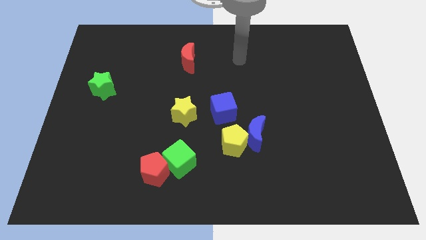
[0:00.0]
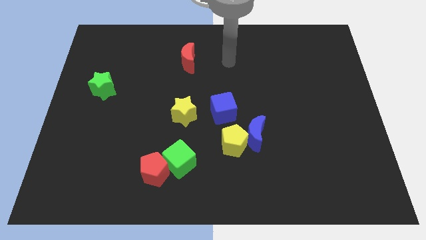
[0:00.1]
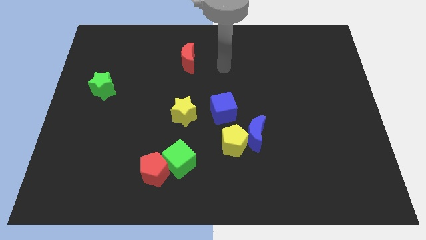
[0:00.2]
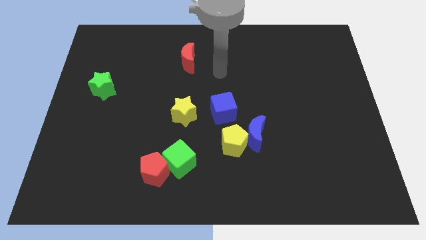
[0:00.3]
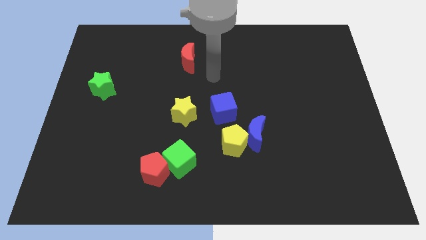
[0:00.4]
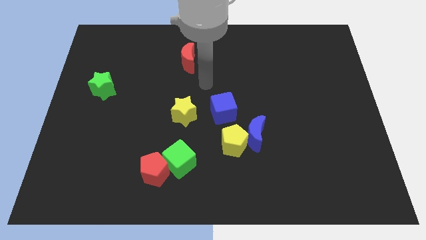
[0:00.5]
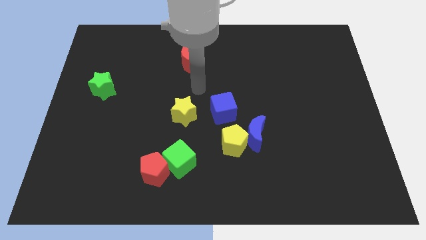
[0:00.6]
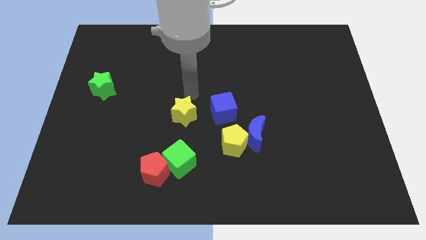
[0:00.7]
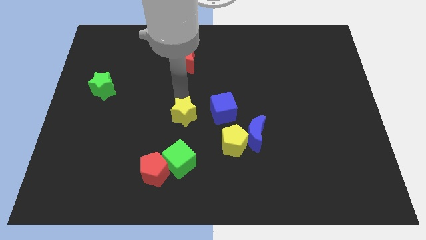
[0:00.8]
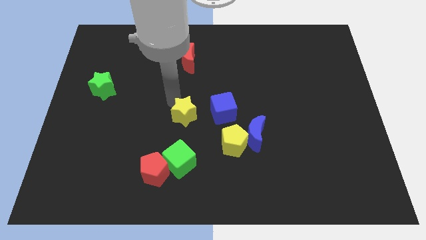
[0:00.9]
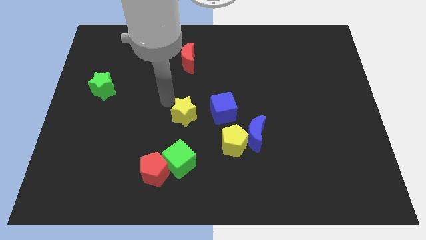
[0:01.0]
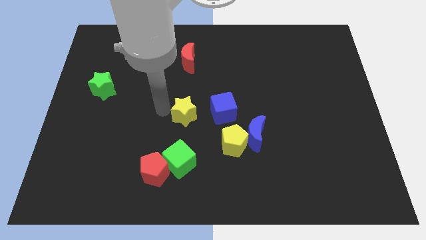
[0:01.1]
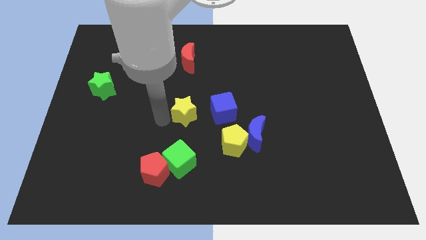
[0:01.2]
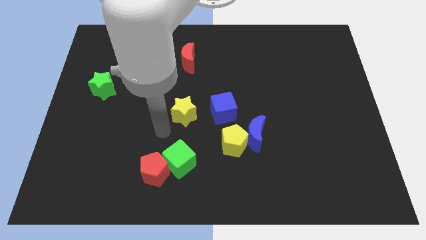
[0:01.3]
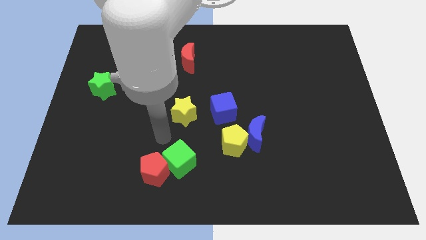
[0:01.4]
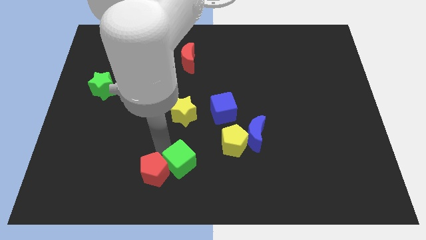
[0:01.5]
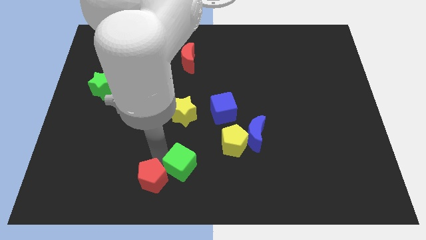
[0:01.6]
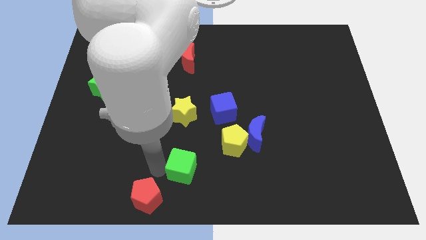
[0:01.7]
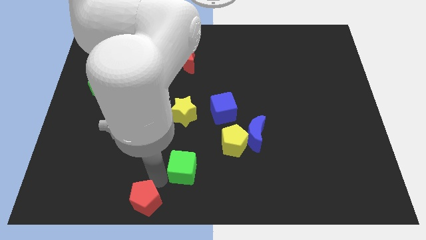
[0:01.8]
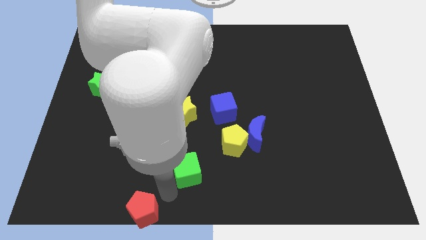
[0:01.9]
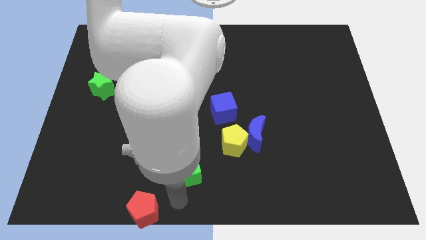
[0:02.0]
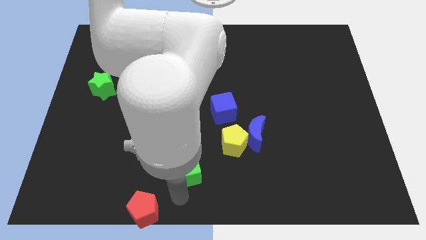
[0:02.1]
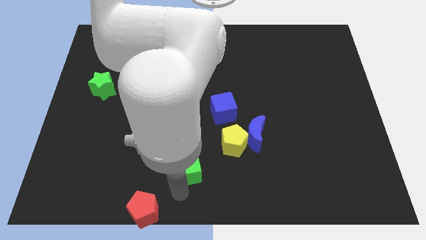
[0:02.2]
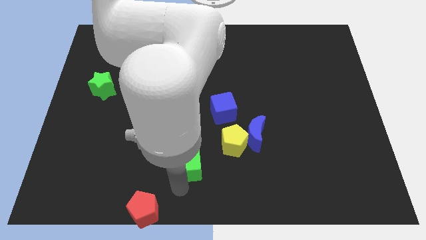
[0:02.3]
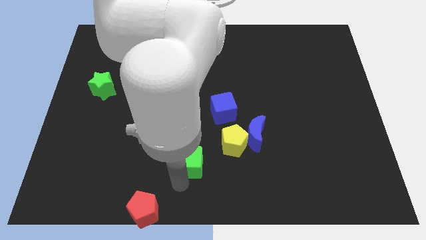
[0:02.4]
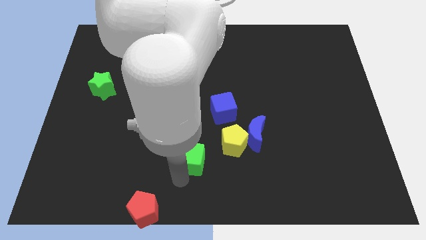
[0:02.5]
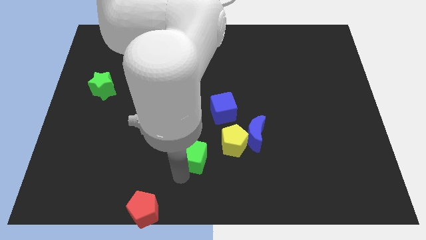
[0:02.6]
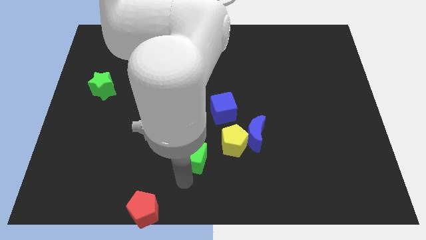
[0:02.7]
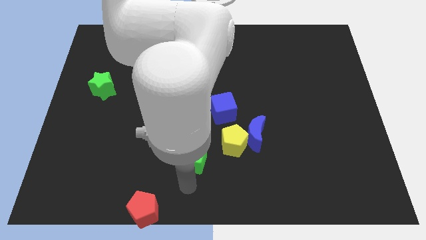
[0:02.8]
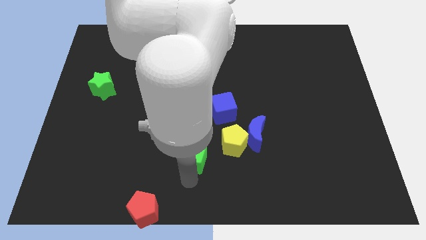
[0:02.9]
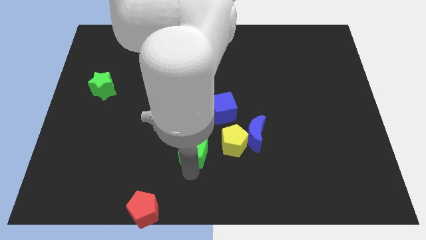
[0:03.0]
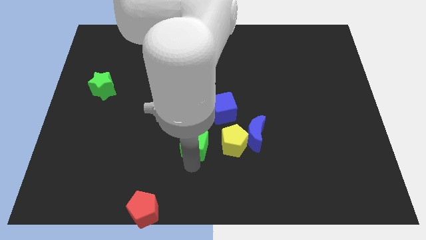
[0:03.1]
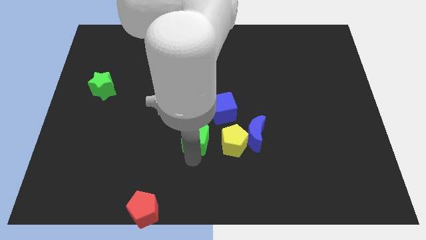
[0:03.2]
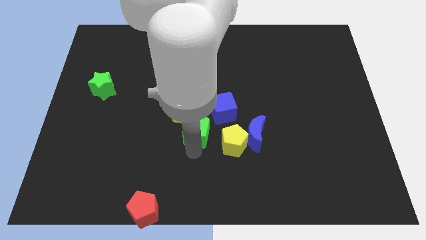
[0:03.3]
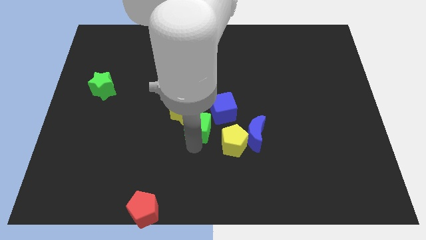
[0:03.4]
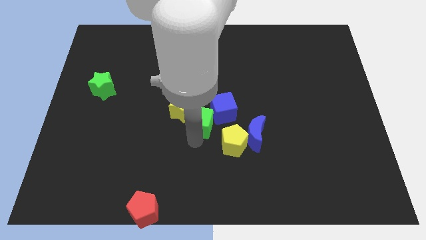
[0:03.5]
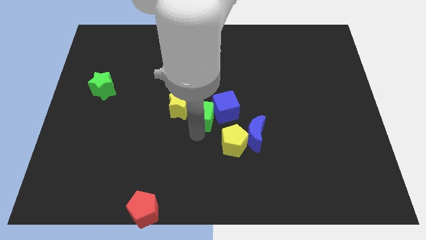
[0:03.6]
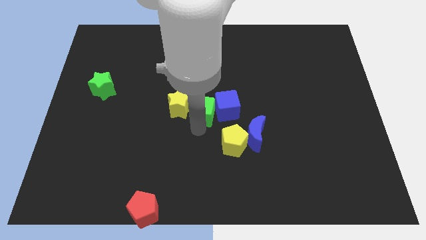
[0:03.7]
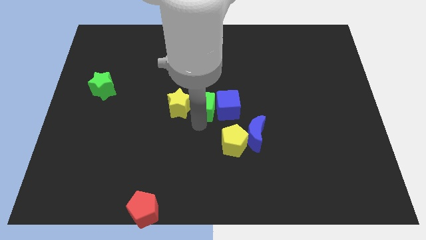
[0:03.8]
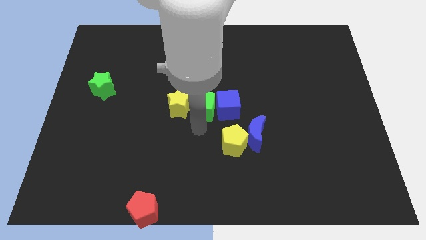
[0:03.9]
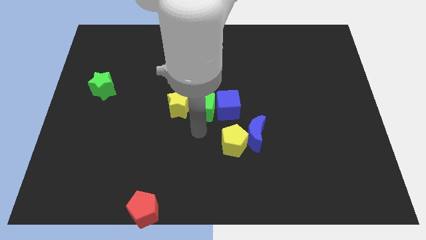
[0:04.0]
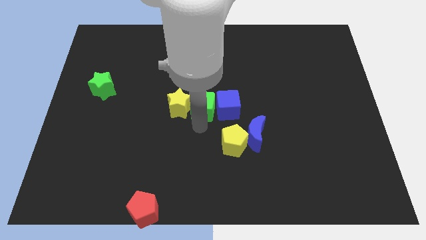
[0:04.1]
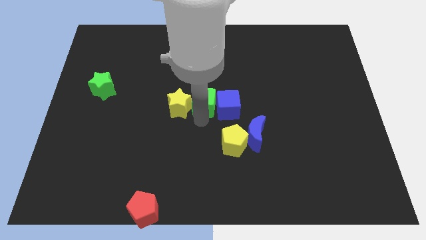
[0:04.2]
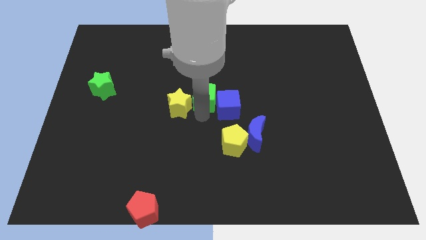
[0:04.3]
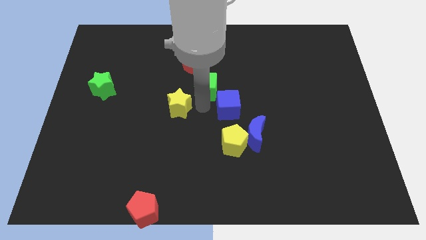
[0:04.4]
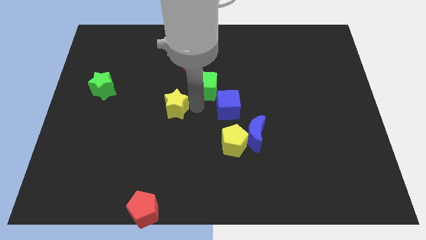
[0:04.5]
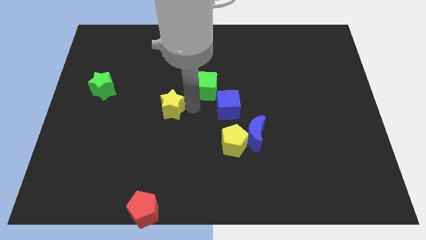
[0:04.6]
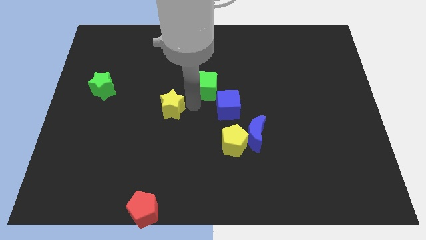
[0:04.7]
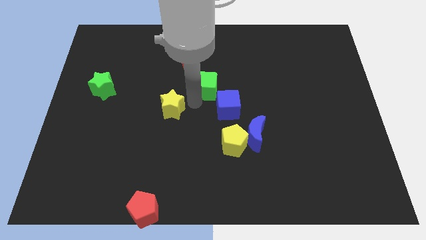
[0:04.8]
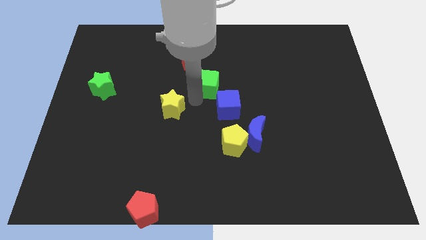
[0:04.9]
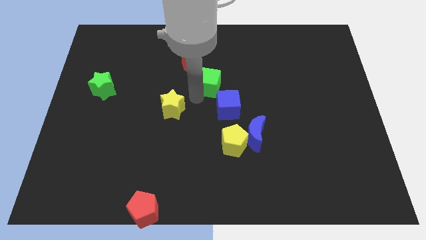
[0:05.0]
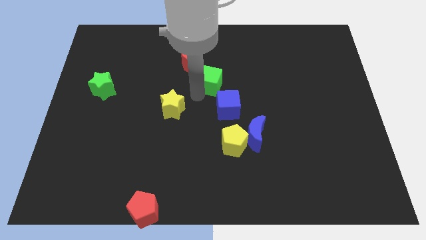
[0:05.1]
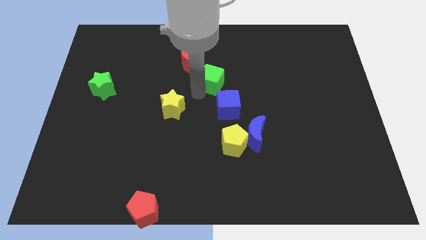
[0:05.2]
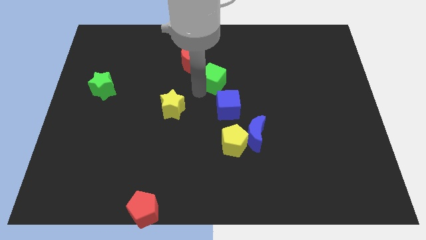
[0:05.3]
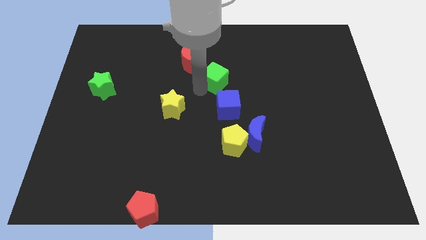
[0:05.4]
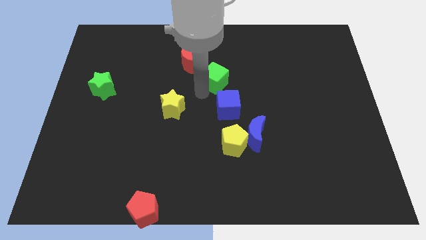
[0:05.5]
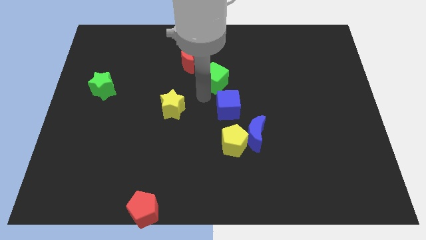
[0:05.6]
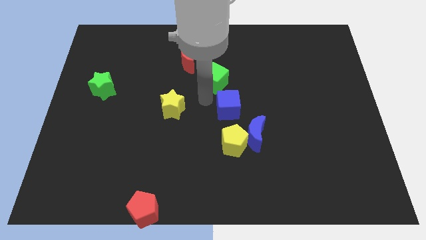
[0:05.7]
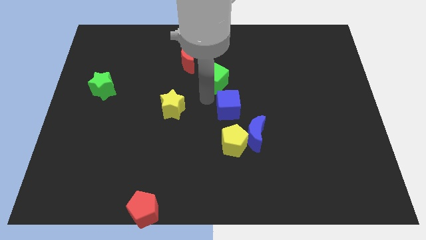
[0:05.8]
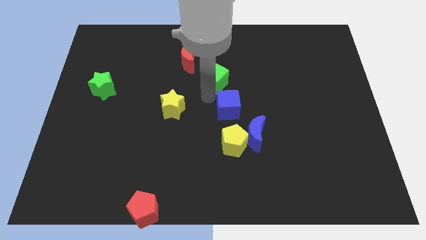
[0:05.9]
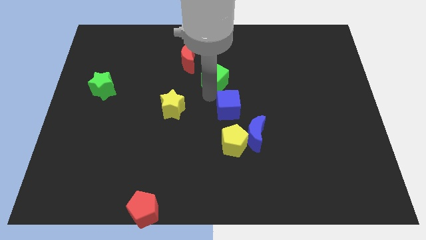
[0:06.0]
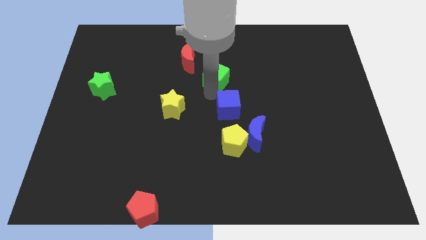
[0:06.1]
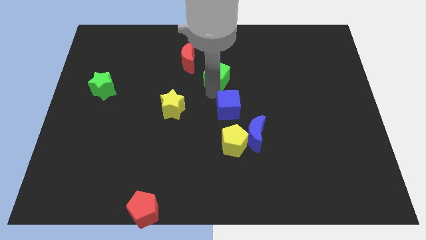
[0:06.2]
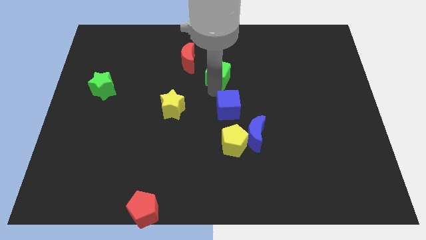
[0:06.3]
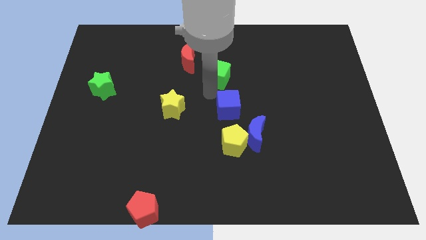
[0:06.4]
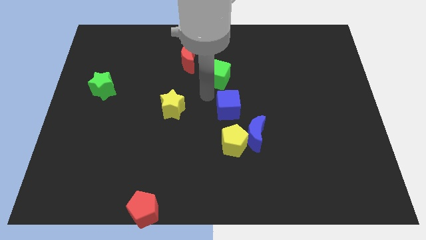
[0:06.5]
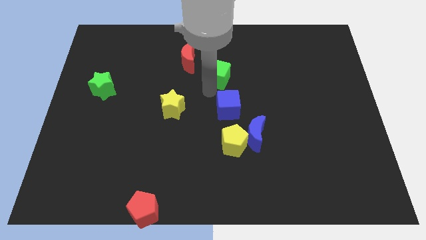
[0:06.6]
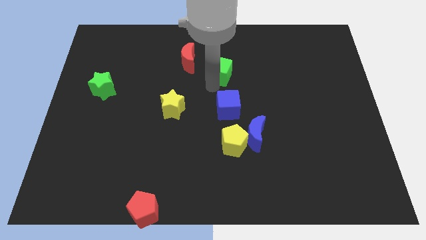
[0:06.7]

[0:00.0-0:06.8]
put the green cube right of the red moon

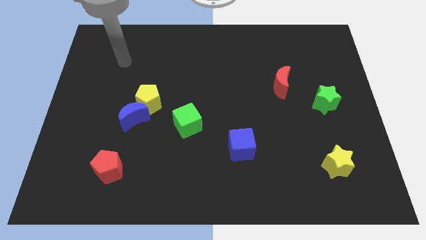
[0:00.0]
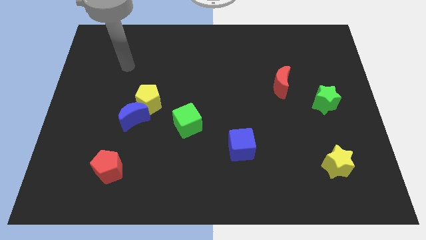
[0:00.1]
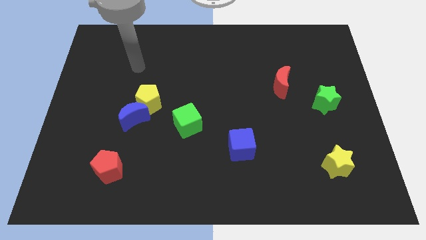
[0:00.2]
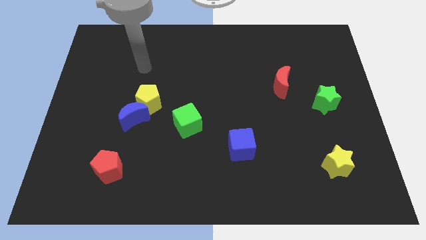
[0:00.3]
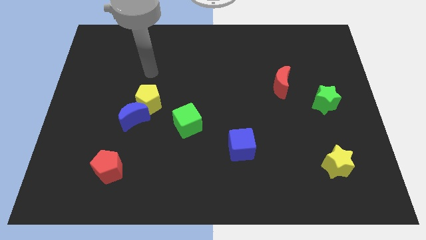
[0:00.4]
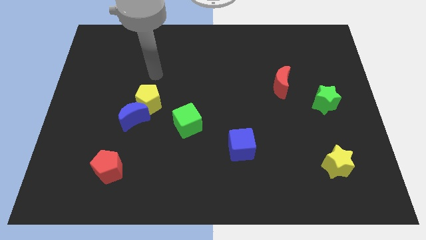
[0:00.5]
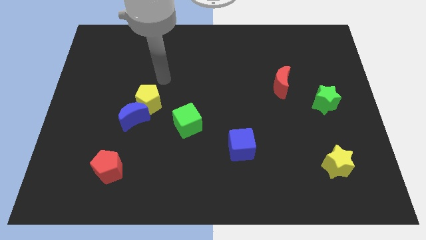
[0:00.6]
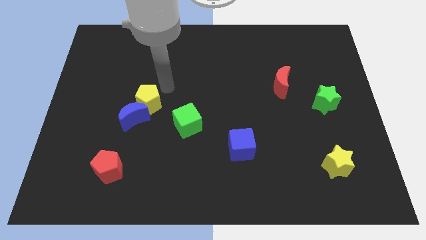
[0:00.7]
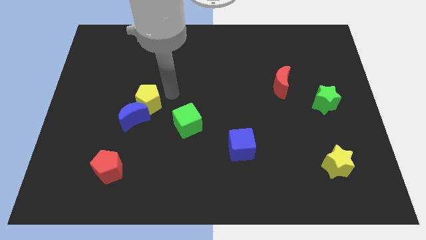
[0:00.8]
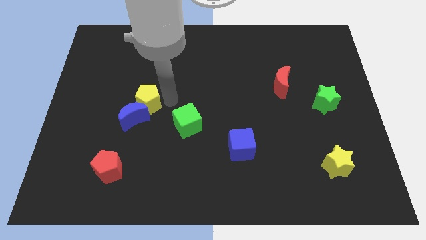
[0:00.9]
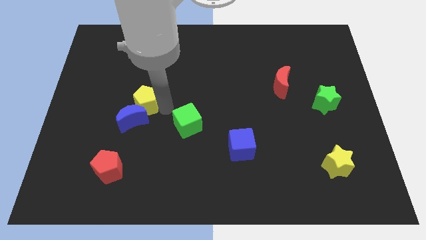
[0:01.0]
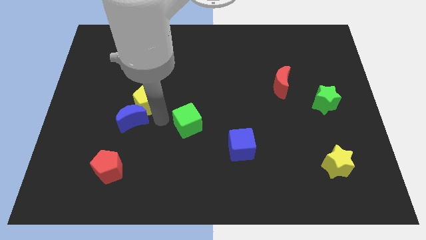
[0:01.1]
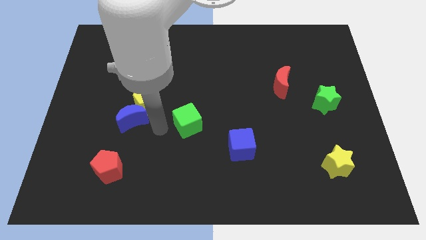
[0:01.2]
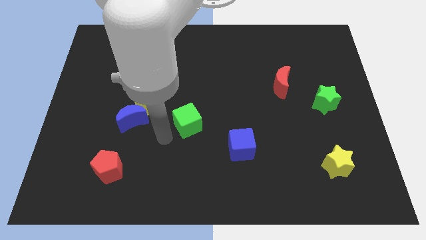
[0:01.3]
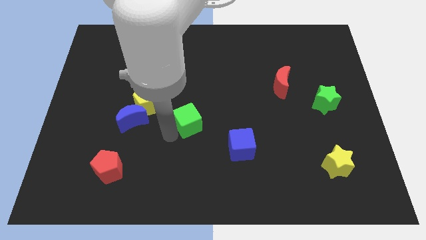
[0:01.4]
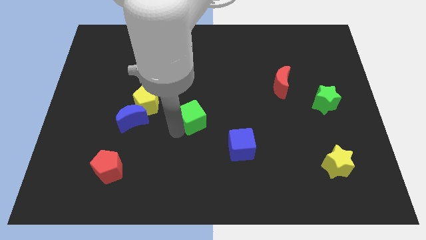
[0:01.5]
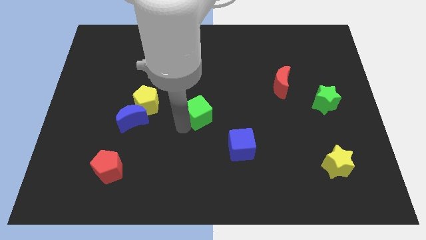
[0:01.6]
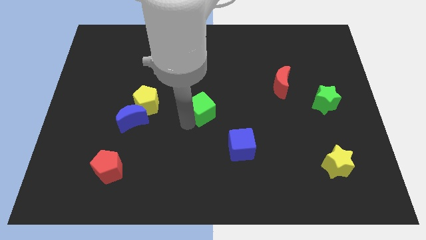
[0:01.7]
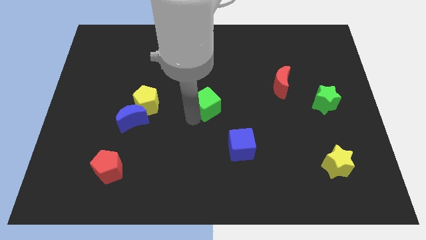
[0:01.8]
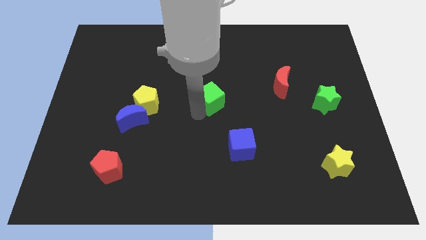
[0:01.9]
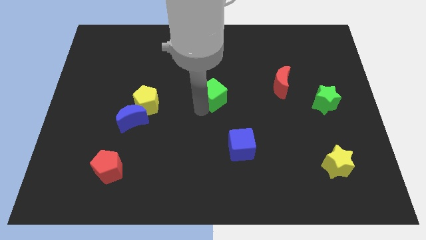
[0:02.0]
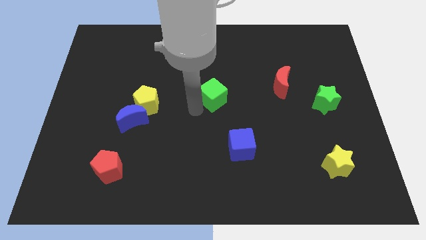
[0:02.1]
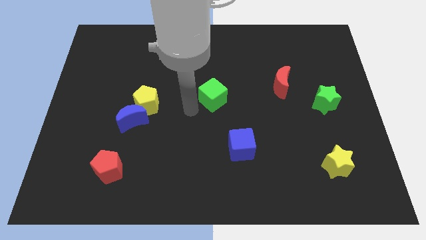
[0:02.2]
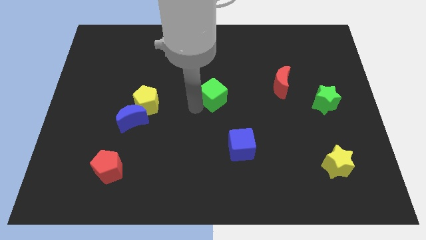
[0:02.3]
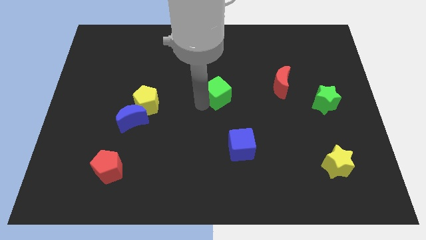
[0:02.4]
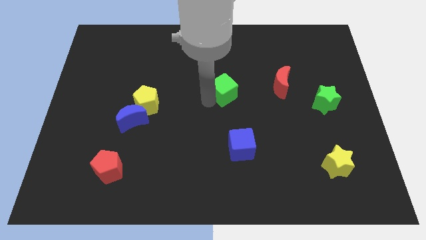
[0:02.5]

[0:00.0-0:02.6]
slide the green cube to the left of the red moon
